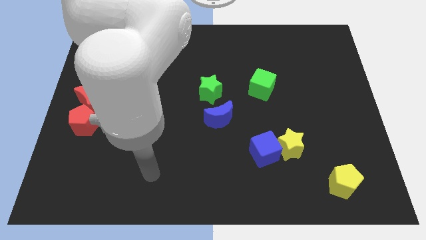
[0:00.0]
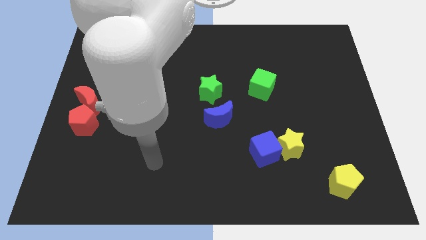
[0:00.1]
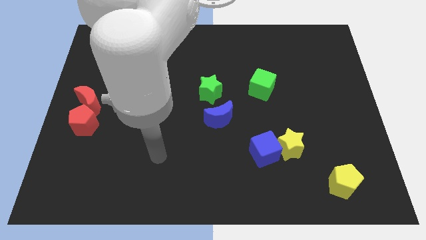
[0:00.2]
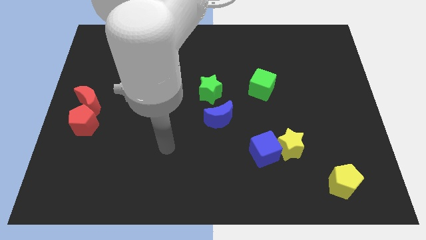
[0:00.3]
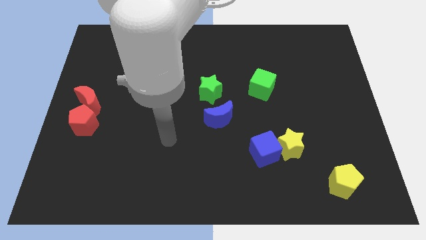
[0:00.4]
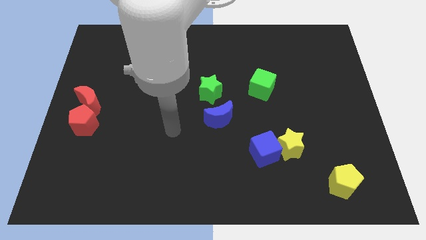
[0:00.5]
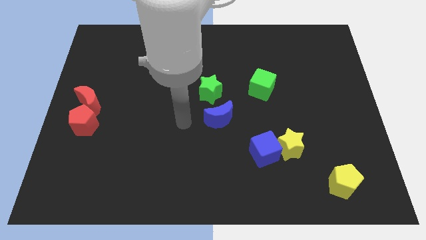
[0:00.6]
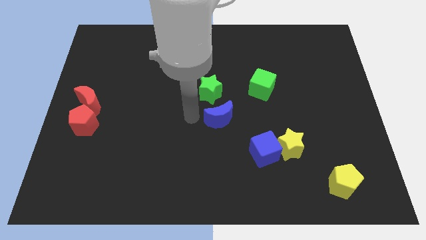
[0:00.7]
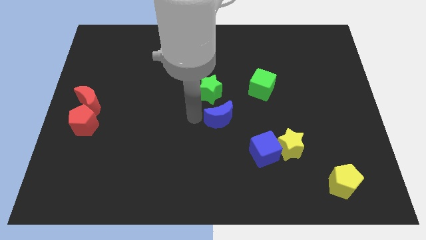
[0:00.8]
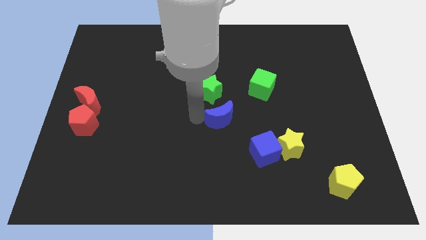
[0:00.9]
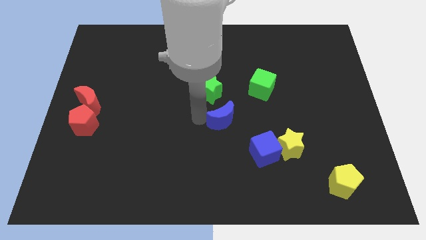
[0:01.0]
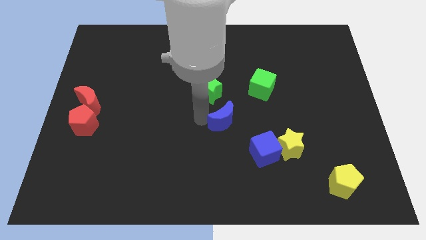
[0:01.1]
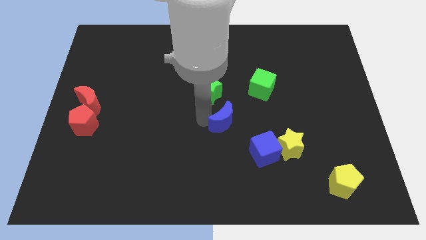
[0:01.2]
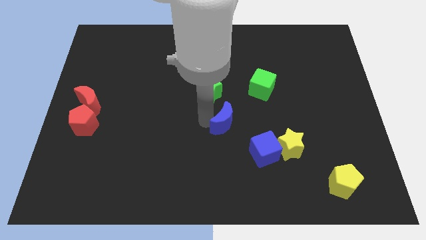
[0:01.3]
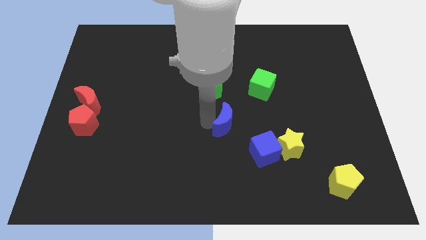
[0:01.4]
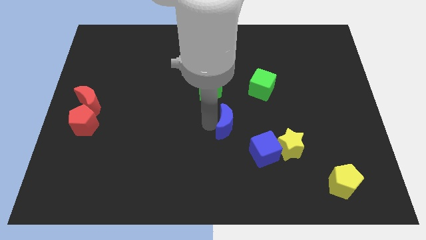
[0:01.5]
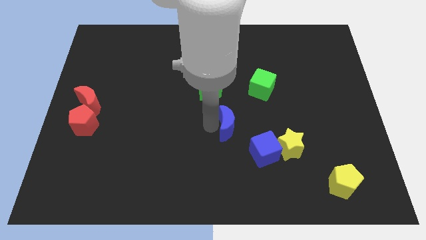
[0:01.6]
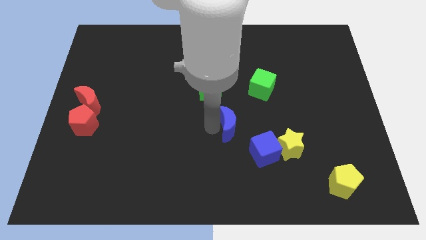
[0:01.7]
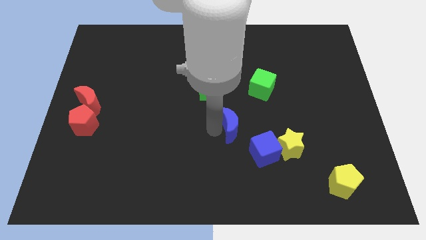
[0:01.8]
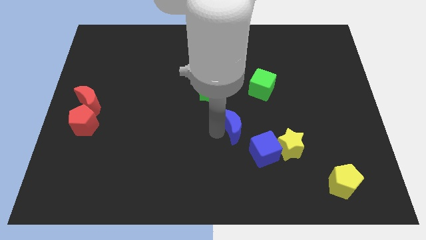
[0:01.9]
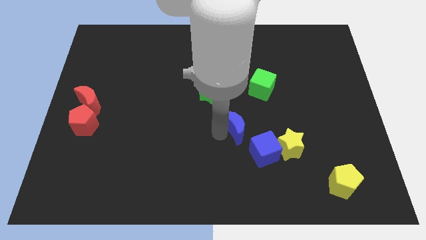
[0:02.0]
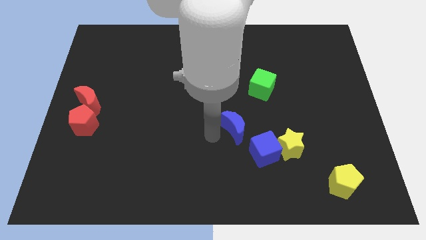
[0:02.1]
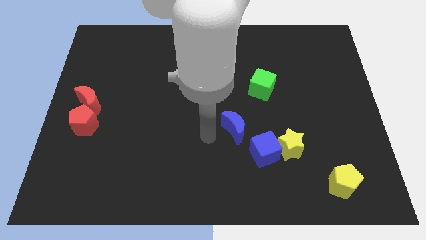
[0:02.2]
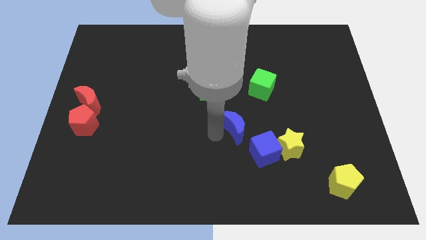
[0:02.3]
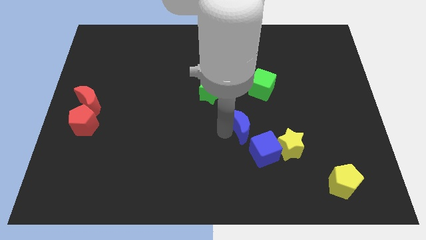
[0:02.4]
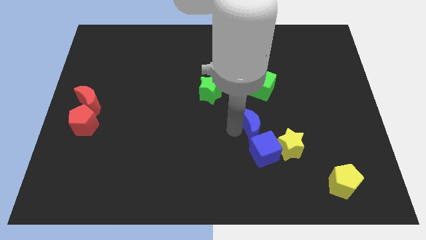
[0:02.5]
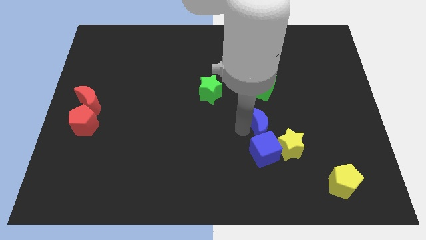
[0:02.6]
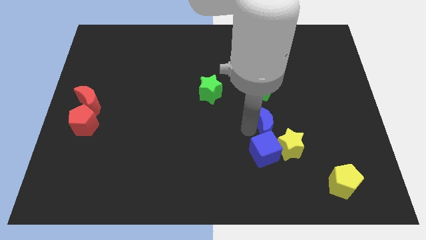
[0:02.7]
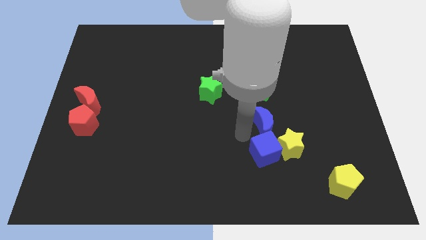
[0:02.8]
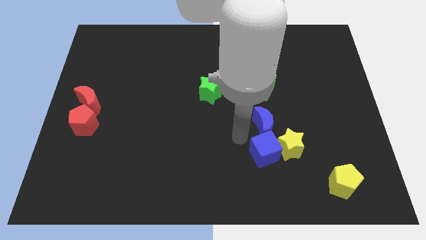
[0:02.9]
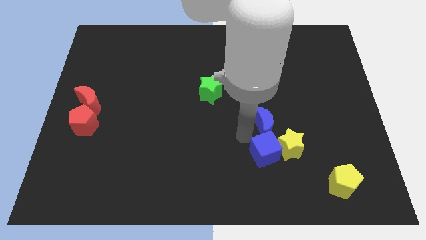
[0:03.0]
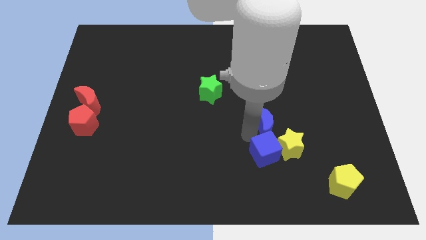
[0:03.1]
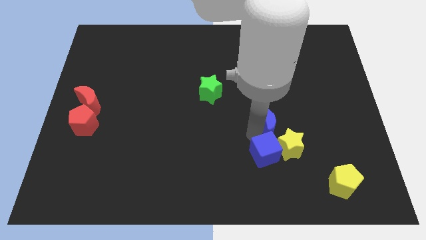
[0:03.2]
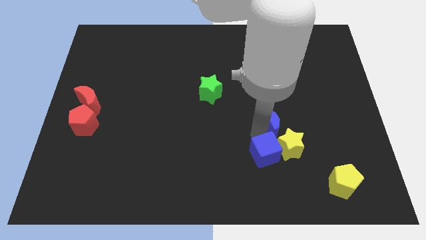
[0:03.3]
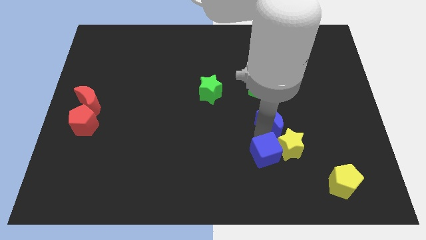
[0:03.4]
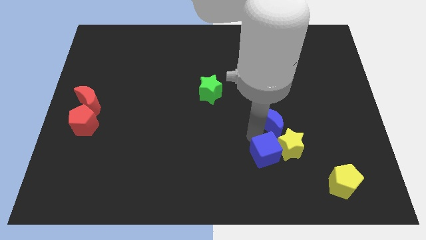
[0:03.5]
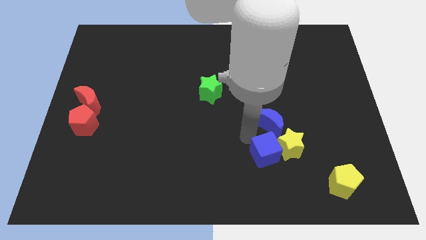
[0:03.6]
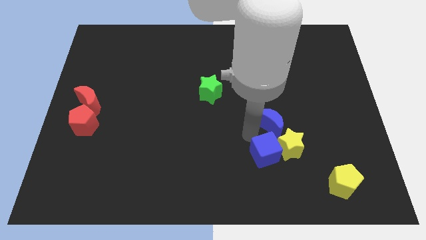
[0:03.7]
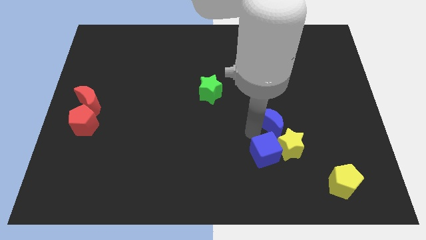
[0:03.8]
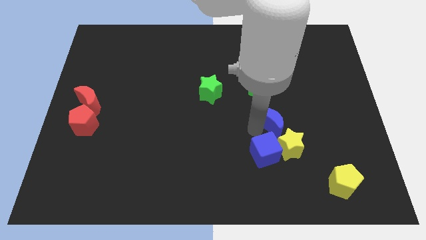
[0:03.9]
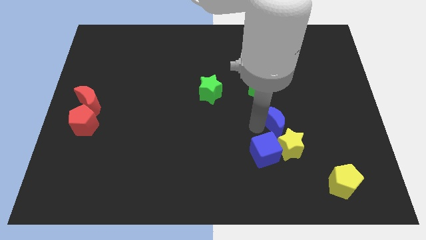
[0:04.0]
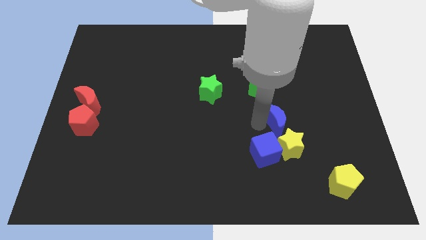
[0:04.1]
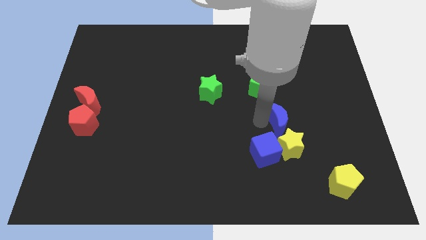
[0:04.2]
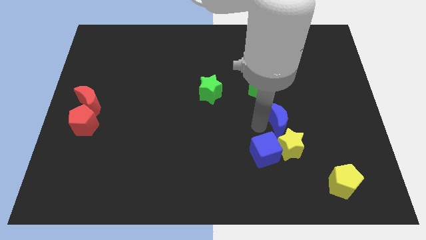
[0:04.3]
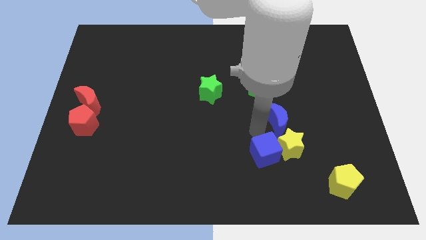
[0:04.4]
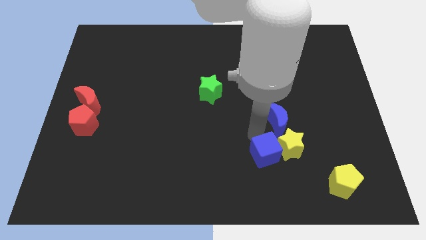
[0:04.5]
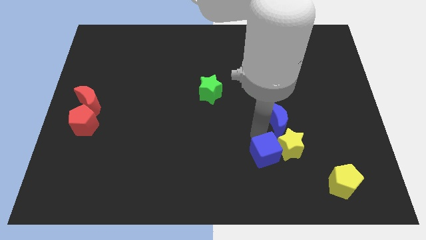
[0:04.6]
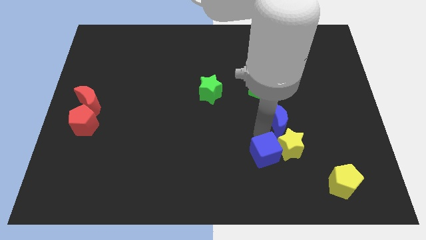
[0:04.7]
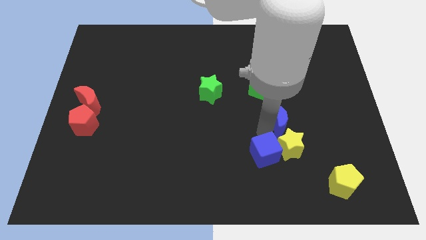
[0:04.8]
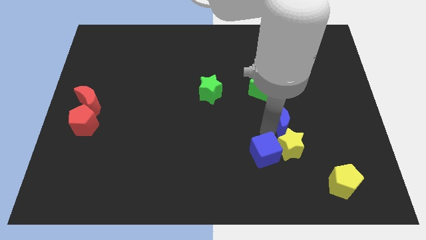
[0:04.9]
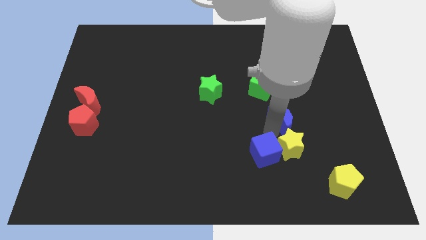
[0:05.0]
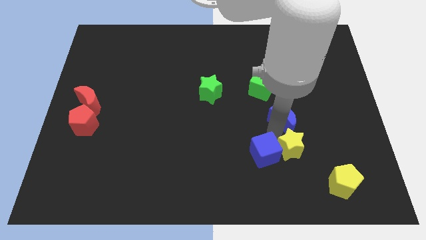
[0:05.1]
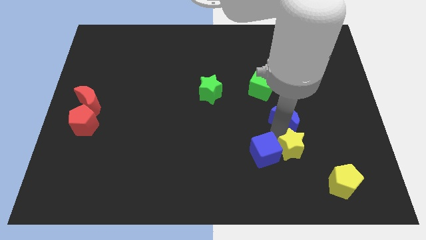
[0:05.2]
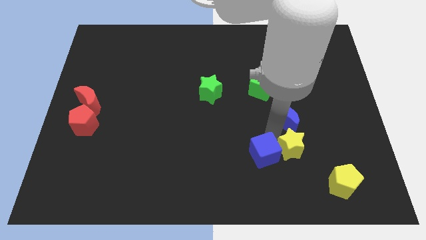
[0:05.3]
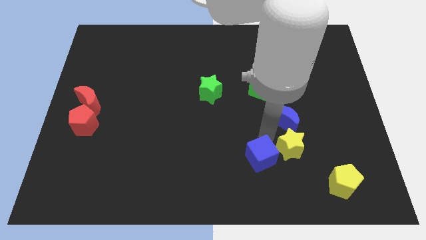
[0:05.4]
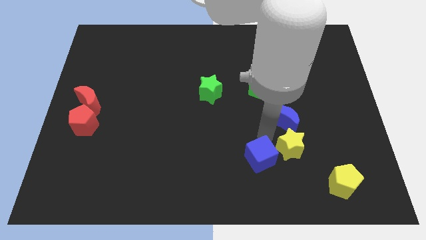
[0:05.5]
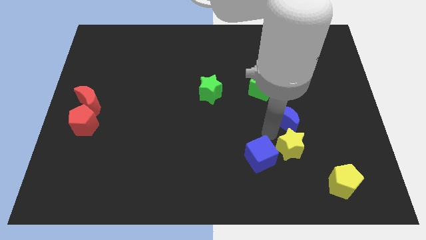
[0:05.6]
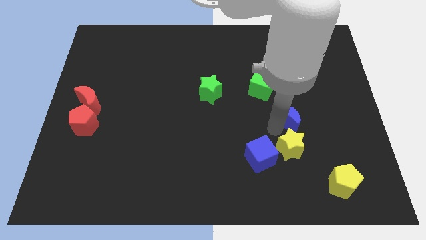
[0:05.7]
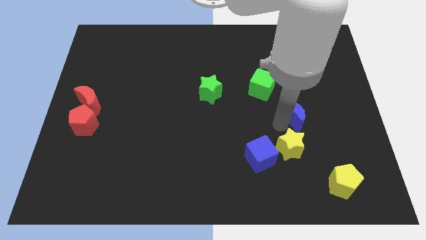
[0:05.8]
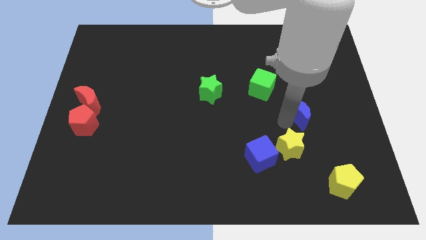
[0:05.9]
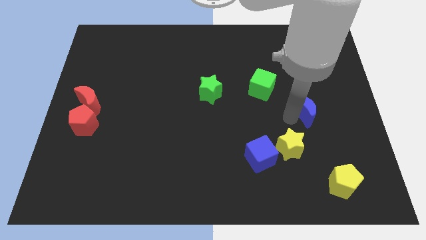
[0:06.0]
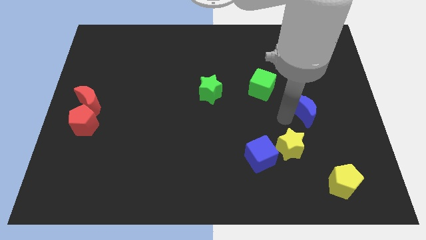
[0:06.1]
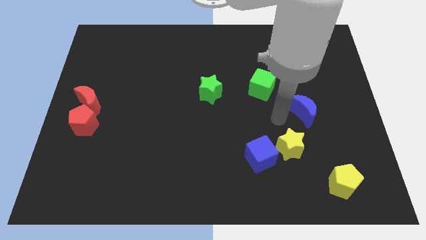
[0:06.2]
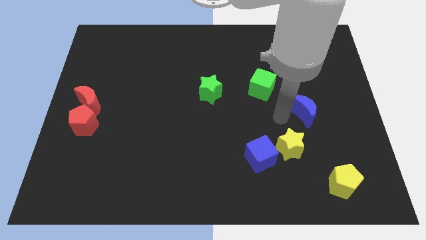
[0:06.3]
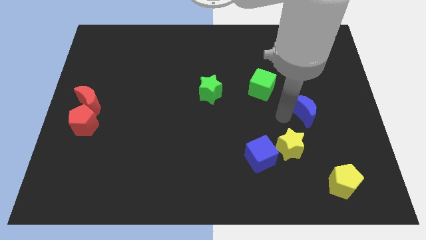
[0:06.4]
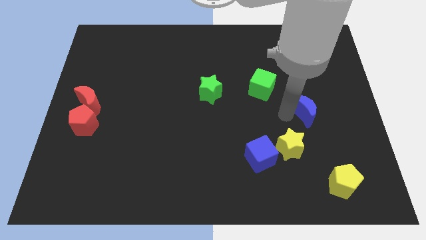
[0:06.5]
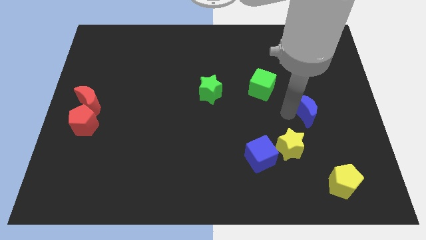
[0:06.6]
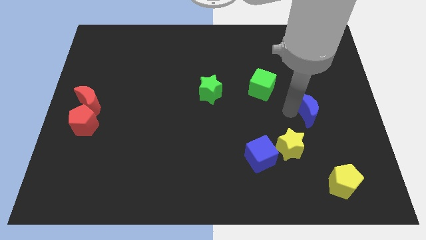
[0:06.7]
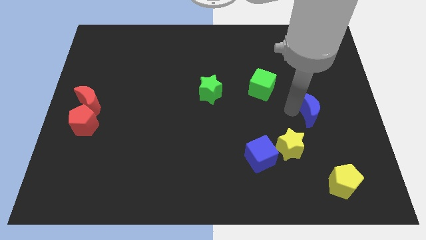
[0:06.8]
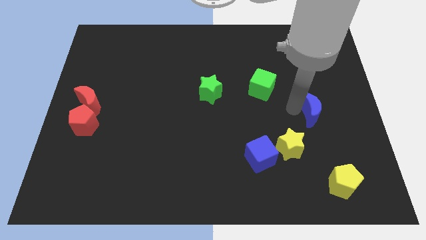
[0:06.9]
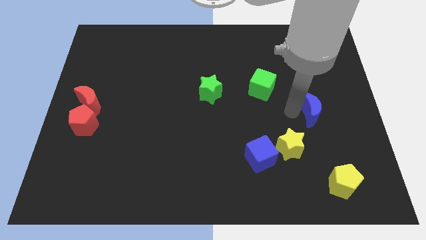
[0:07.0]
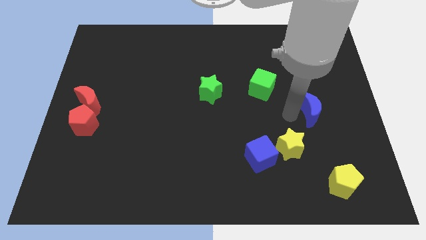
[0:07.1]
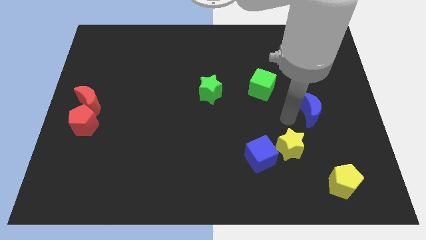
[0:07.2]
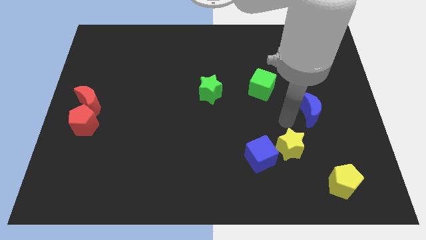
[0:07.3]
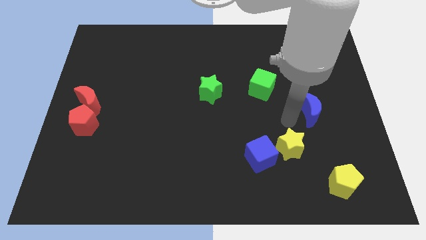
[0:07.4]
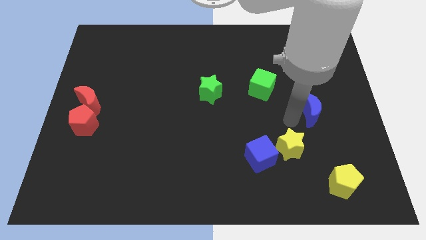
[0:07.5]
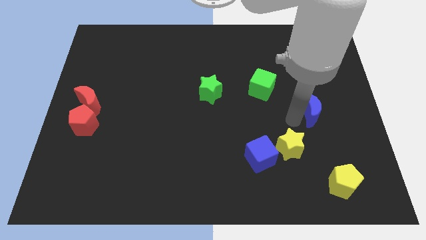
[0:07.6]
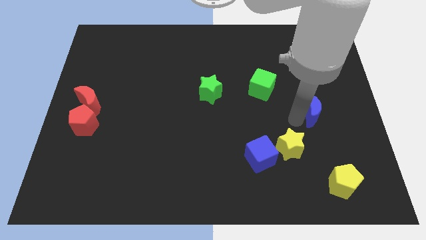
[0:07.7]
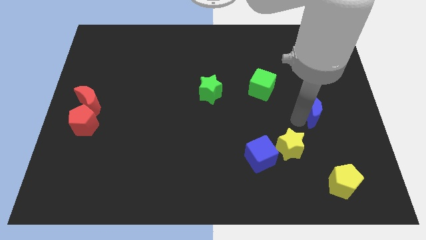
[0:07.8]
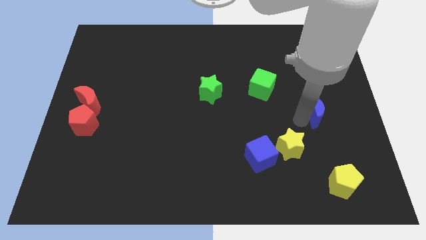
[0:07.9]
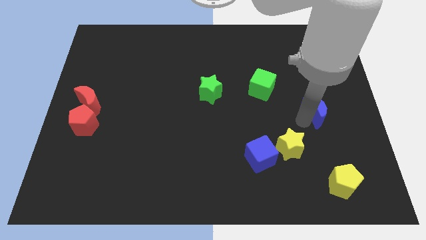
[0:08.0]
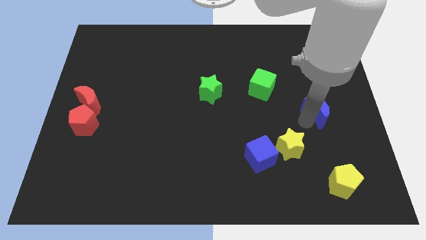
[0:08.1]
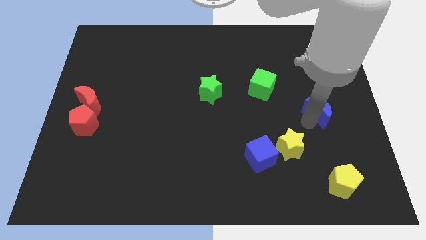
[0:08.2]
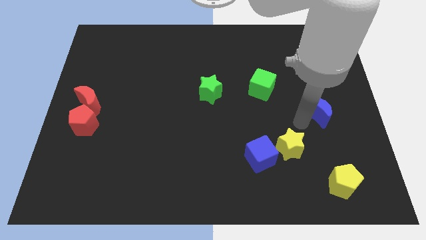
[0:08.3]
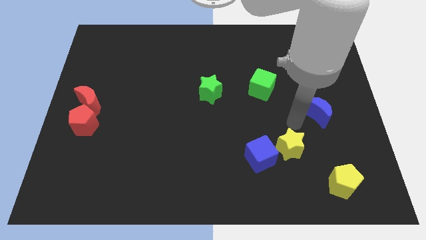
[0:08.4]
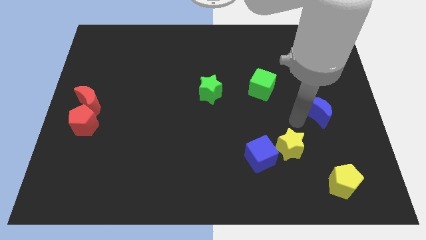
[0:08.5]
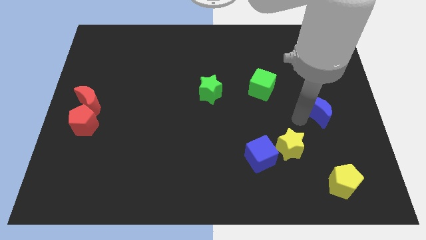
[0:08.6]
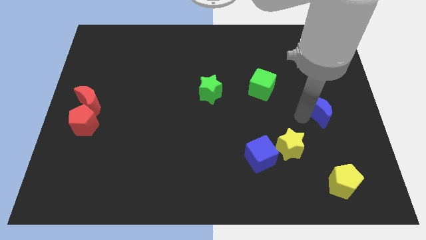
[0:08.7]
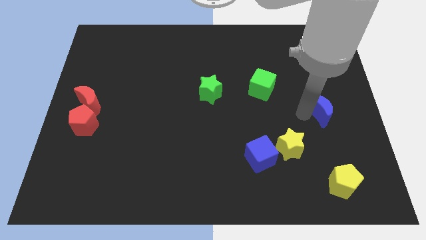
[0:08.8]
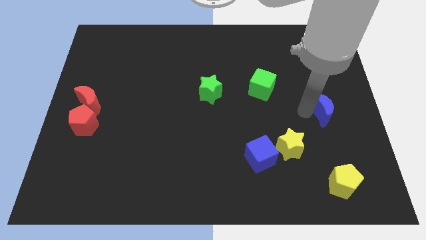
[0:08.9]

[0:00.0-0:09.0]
slide the blue moon to the center right
